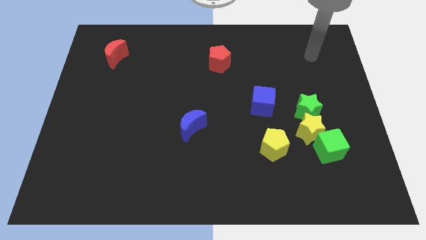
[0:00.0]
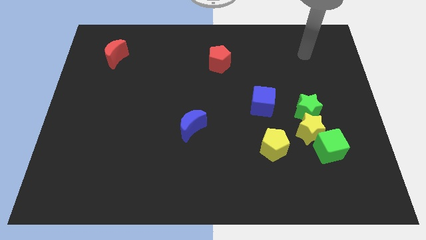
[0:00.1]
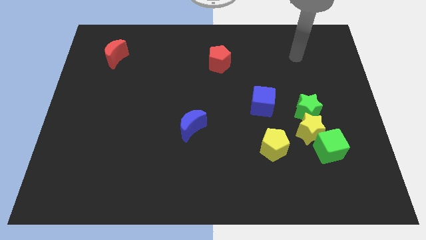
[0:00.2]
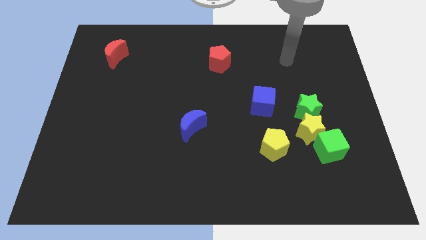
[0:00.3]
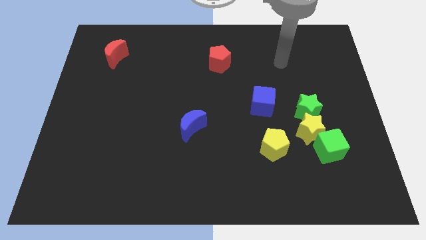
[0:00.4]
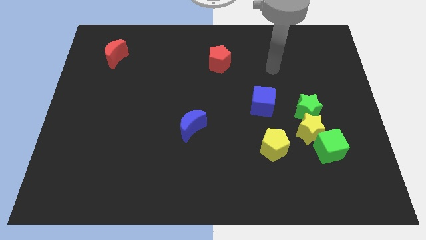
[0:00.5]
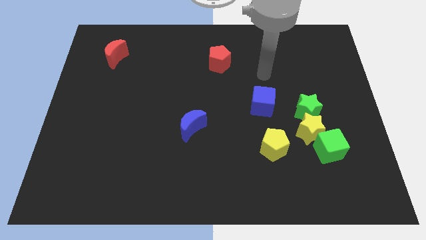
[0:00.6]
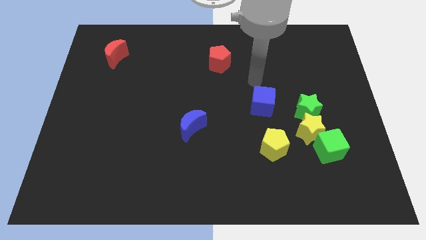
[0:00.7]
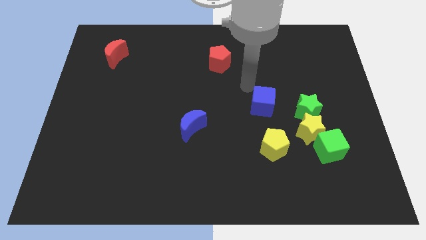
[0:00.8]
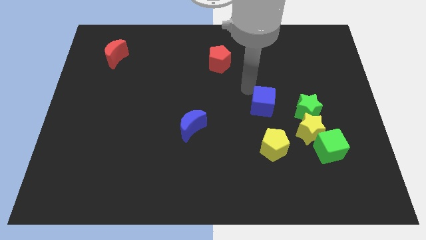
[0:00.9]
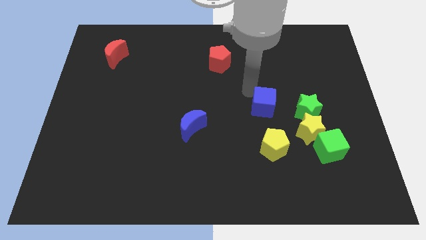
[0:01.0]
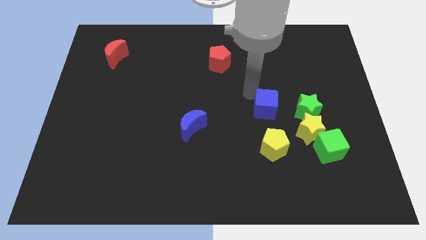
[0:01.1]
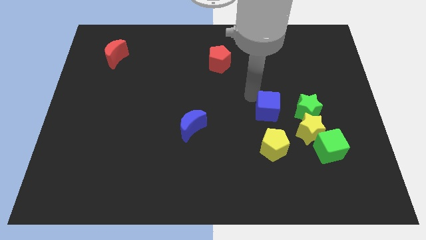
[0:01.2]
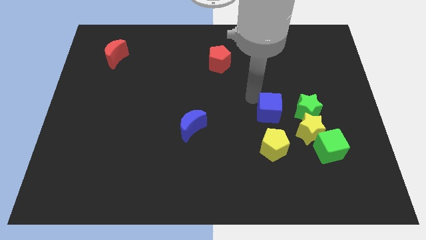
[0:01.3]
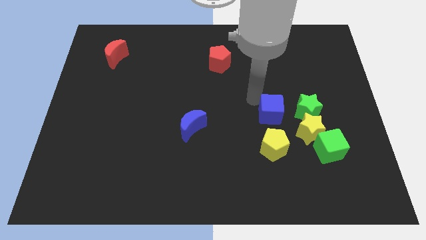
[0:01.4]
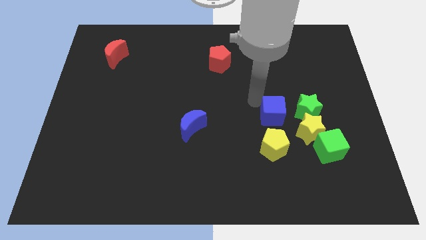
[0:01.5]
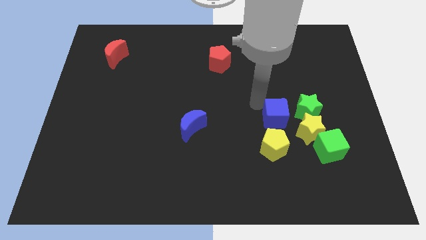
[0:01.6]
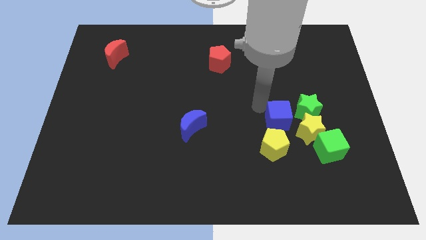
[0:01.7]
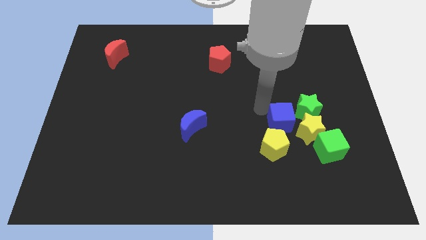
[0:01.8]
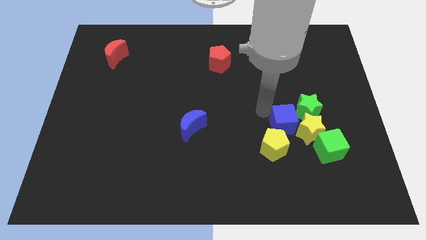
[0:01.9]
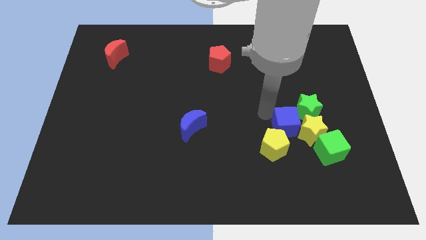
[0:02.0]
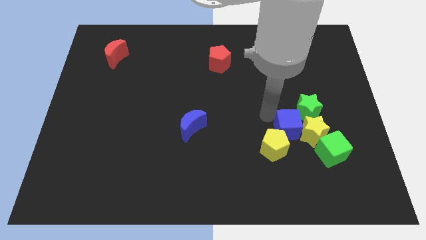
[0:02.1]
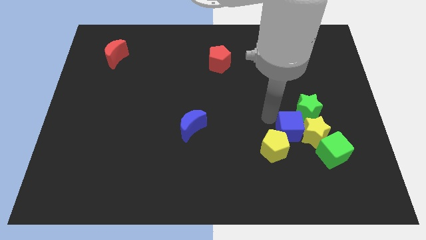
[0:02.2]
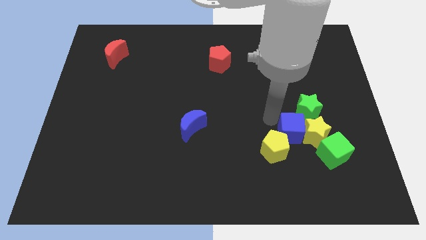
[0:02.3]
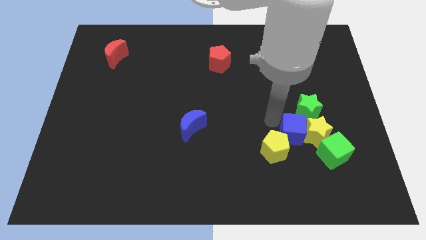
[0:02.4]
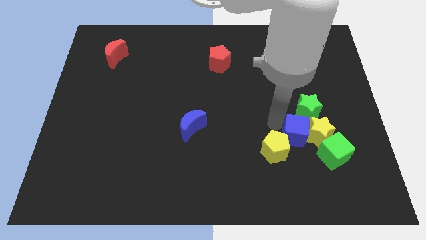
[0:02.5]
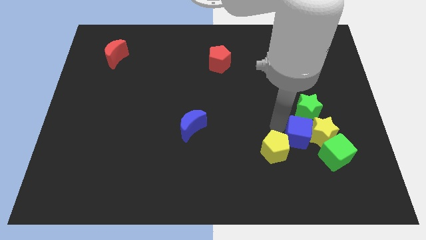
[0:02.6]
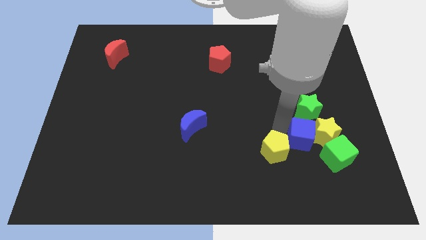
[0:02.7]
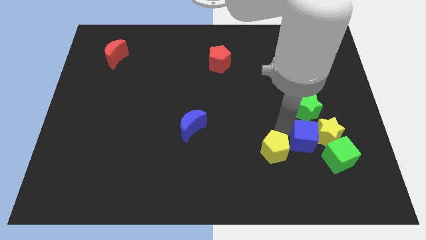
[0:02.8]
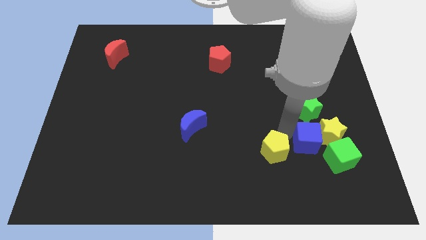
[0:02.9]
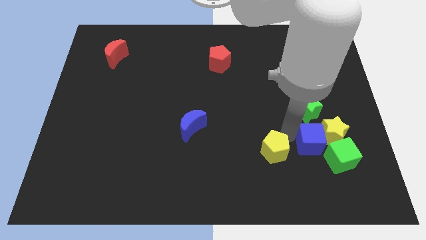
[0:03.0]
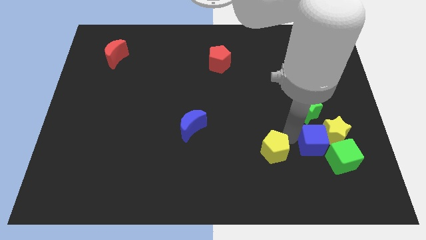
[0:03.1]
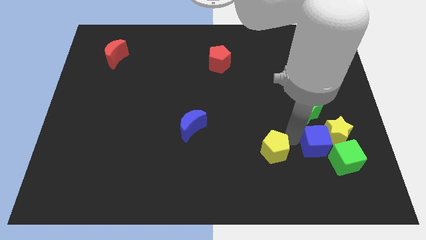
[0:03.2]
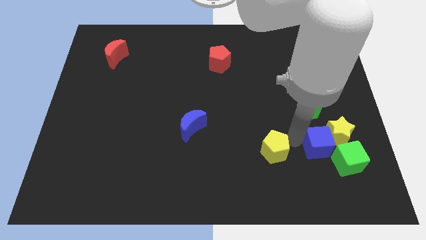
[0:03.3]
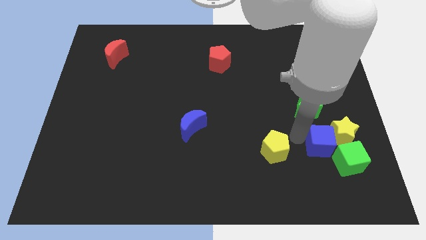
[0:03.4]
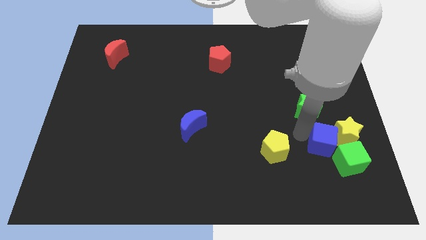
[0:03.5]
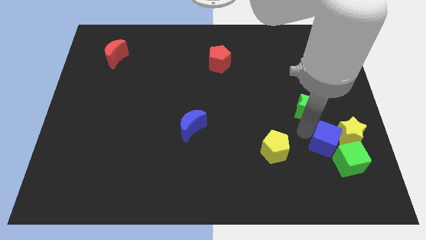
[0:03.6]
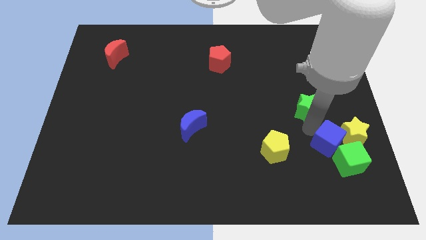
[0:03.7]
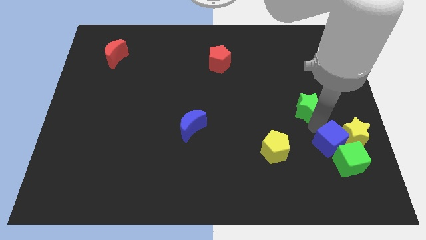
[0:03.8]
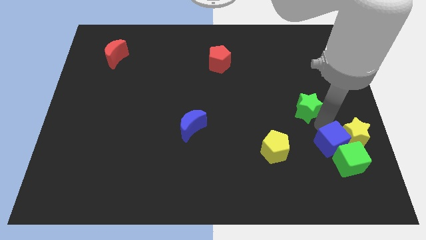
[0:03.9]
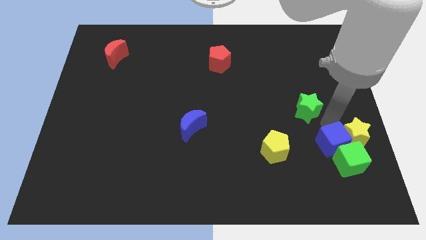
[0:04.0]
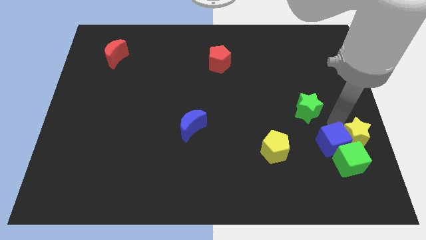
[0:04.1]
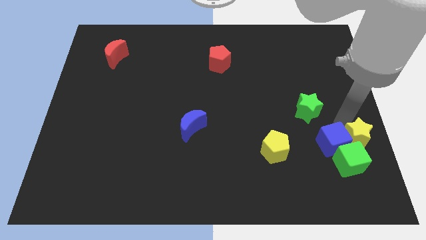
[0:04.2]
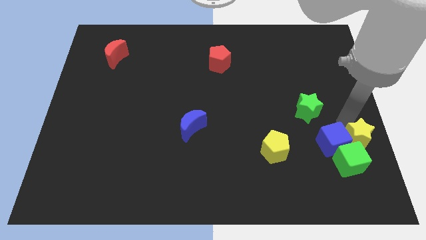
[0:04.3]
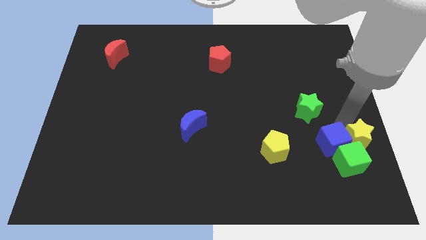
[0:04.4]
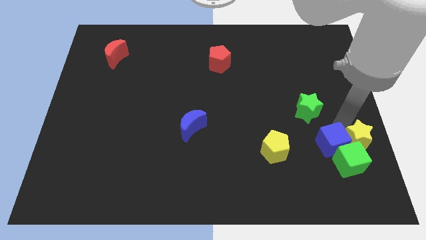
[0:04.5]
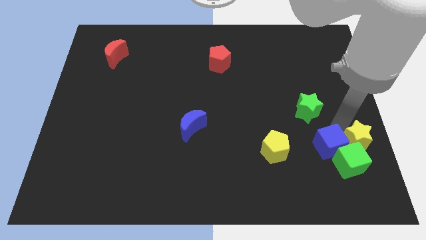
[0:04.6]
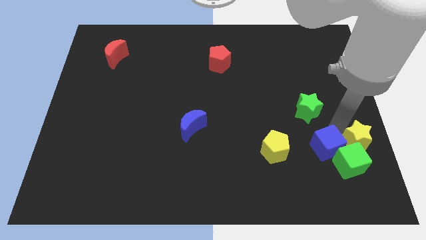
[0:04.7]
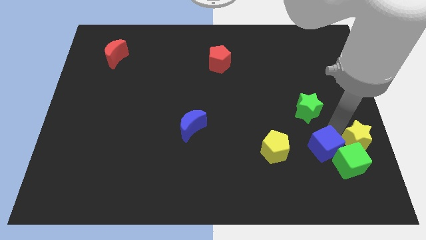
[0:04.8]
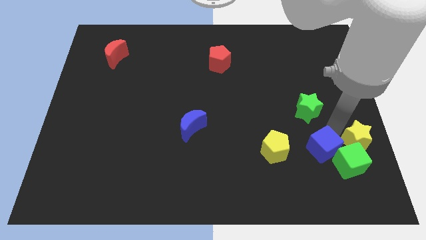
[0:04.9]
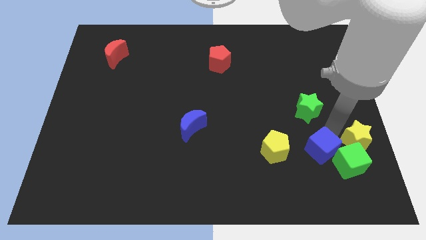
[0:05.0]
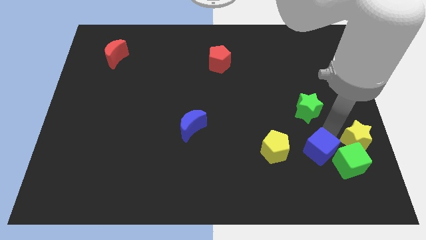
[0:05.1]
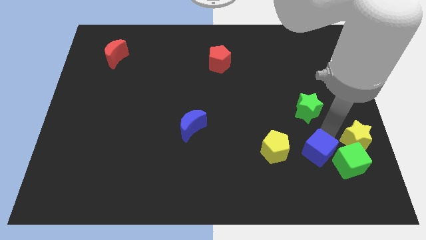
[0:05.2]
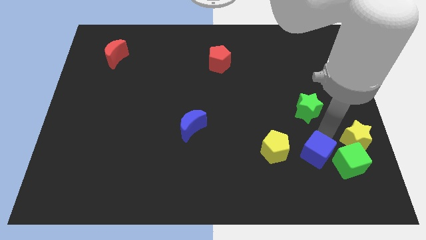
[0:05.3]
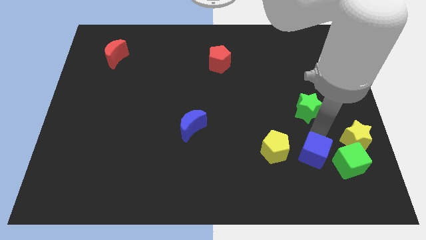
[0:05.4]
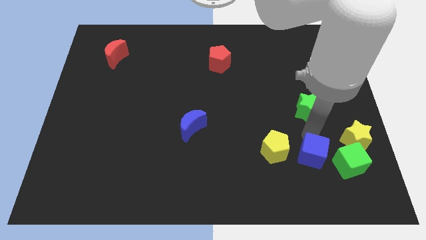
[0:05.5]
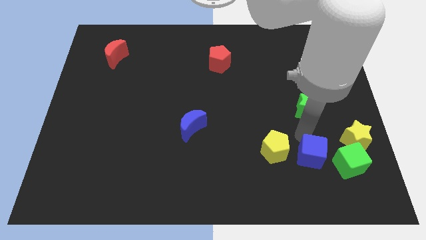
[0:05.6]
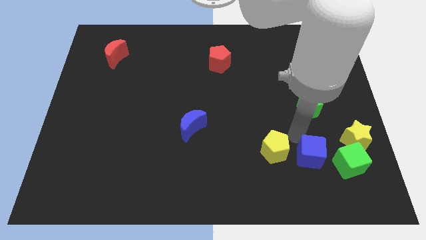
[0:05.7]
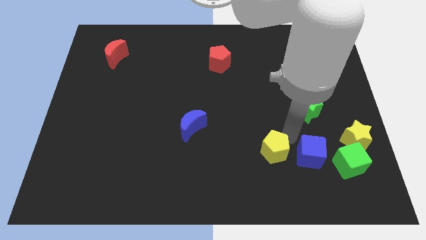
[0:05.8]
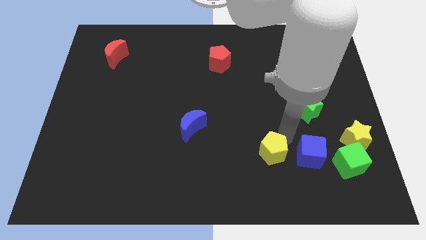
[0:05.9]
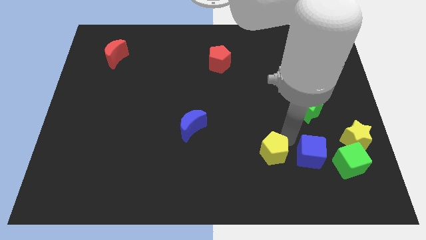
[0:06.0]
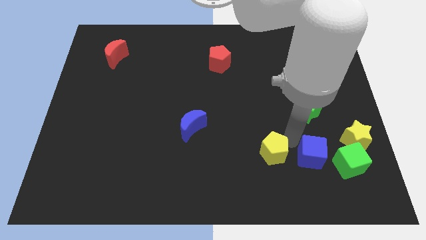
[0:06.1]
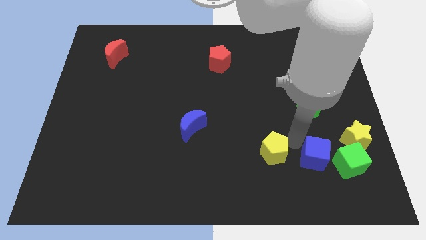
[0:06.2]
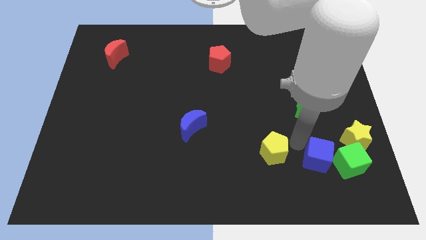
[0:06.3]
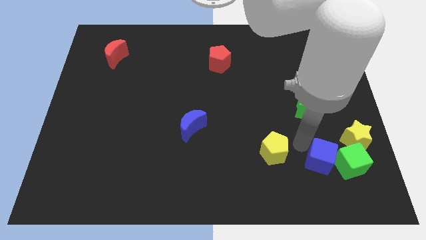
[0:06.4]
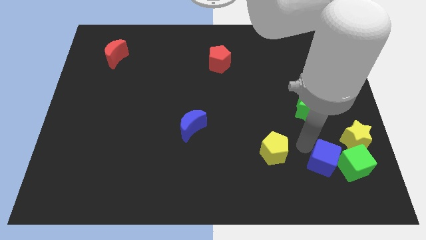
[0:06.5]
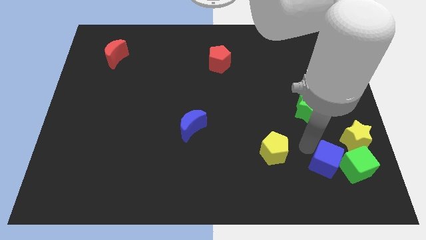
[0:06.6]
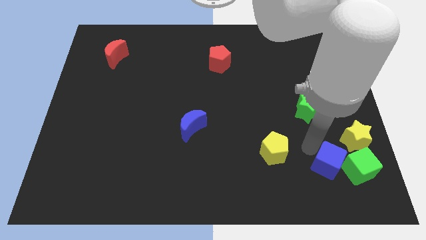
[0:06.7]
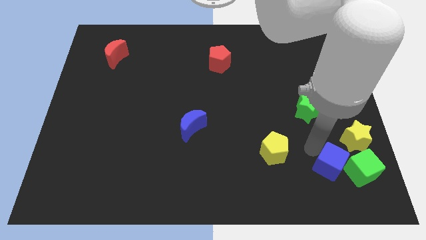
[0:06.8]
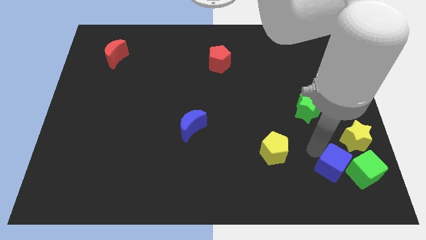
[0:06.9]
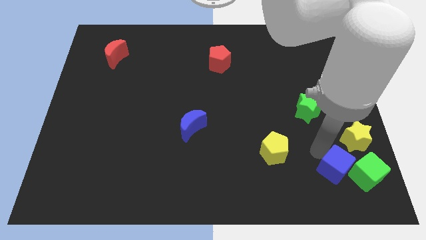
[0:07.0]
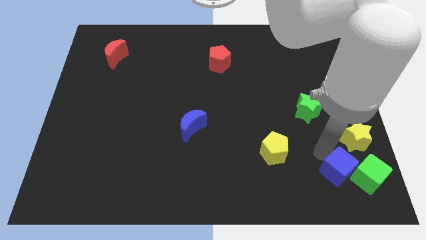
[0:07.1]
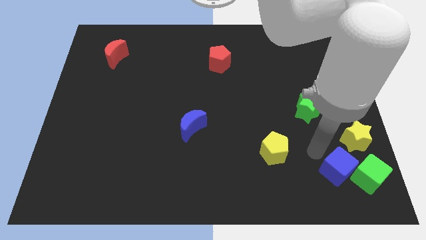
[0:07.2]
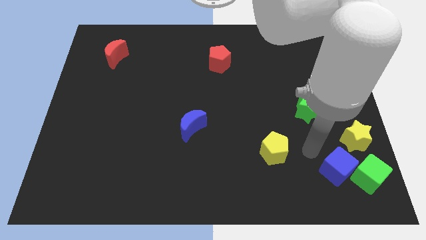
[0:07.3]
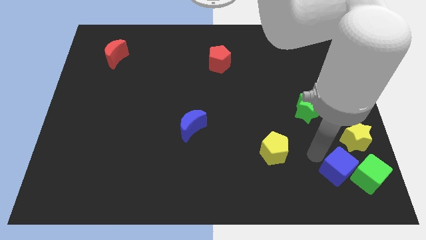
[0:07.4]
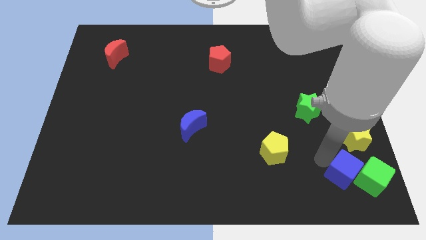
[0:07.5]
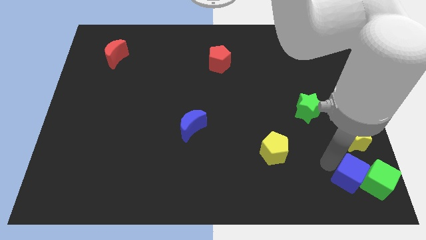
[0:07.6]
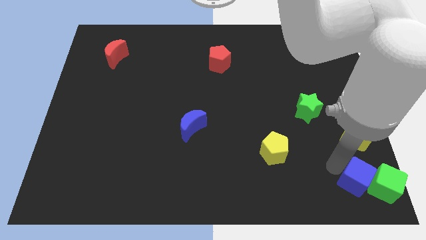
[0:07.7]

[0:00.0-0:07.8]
push the blue cube to the lower right corner
